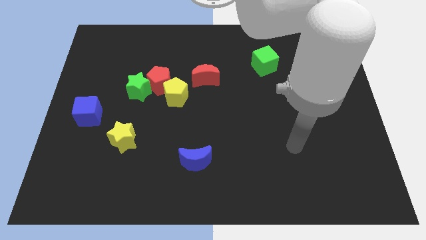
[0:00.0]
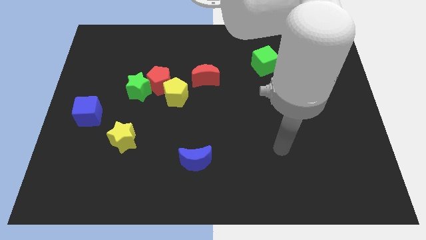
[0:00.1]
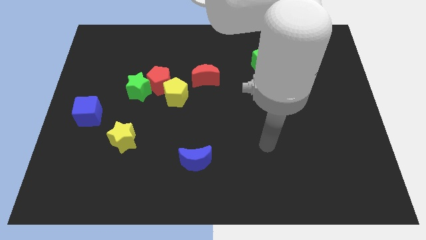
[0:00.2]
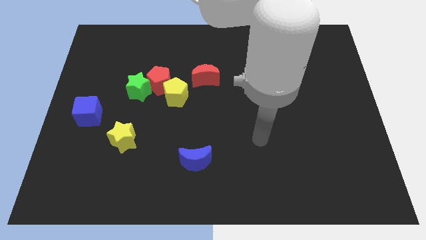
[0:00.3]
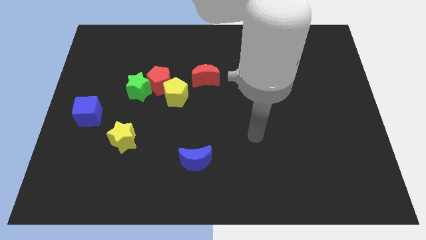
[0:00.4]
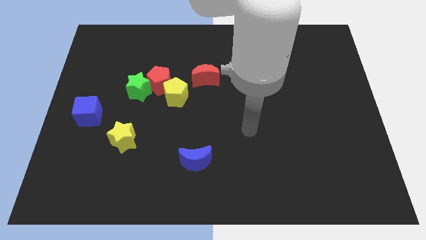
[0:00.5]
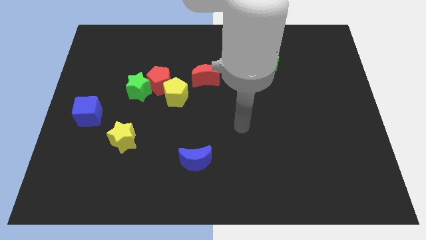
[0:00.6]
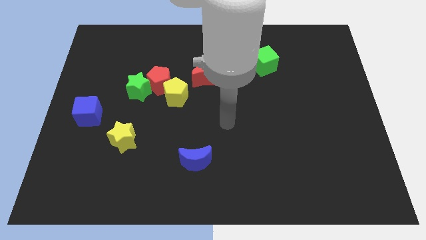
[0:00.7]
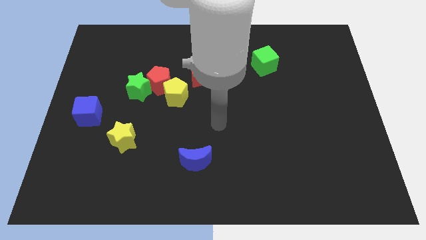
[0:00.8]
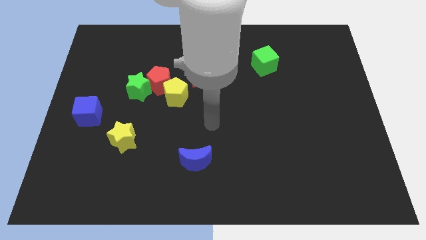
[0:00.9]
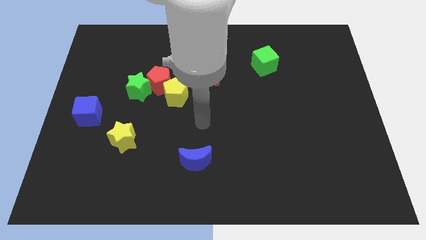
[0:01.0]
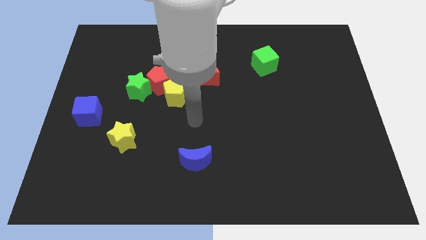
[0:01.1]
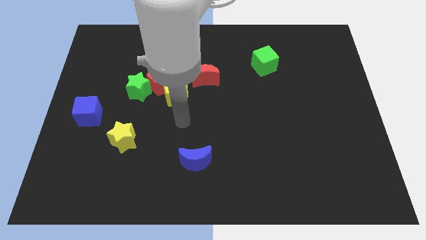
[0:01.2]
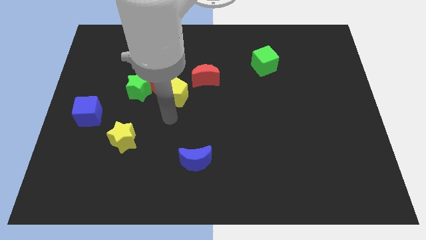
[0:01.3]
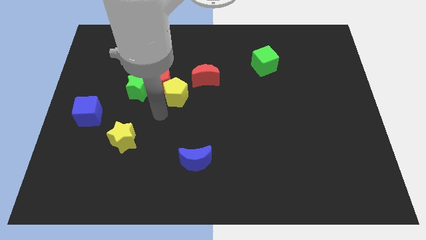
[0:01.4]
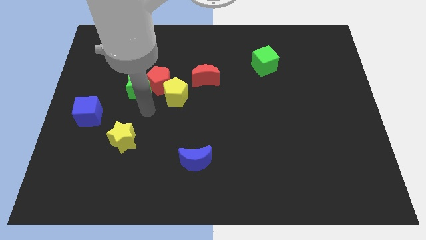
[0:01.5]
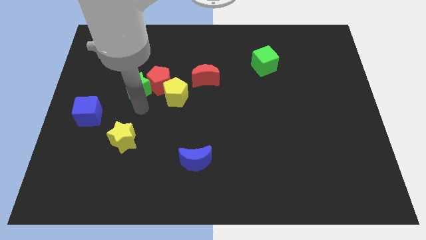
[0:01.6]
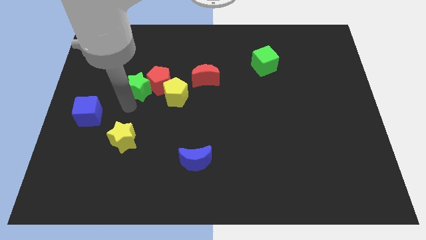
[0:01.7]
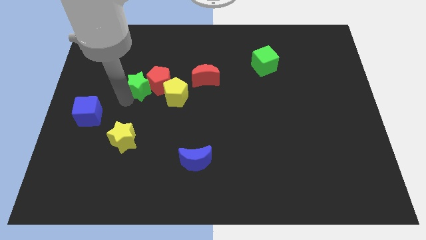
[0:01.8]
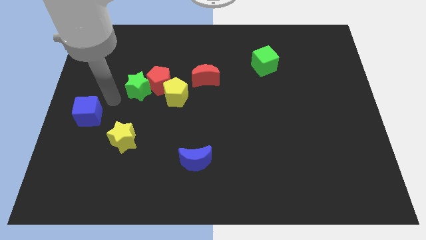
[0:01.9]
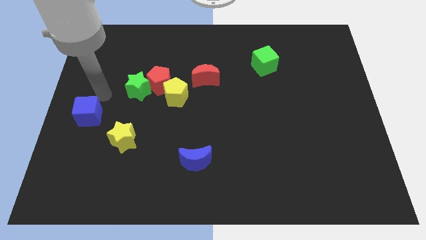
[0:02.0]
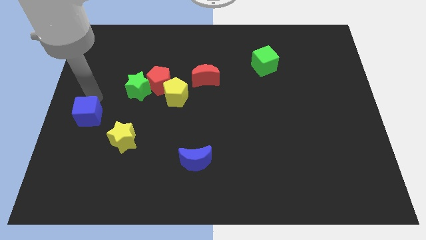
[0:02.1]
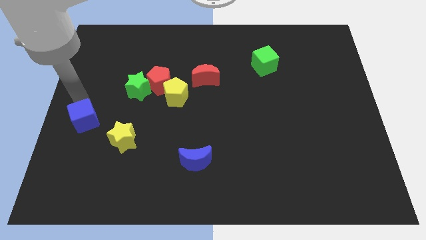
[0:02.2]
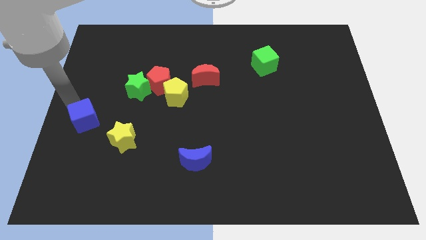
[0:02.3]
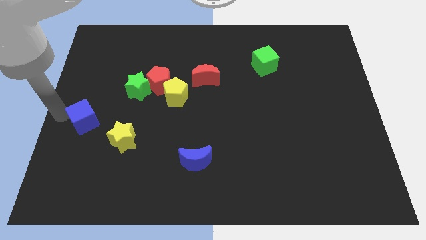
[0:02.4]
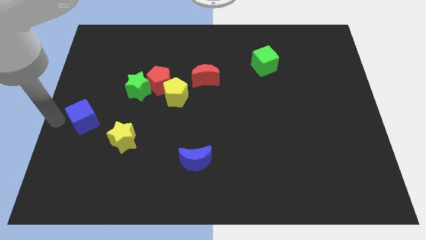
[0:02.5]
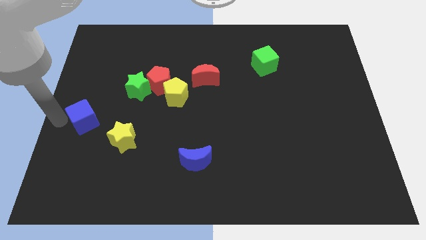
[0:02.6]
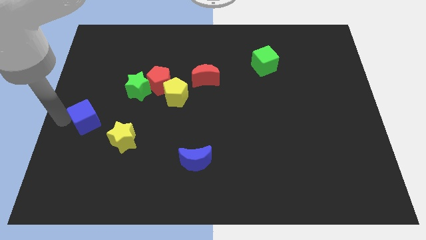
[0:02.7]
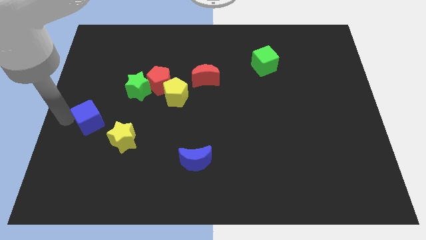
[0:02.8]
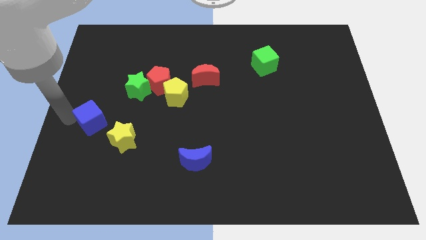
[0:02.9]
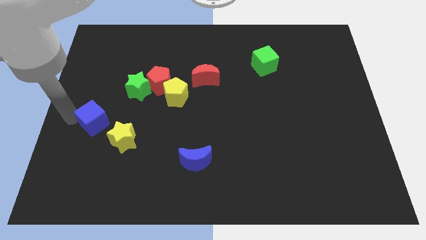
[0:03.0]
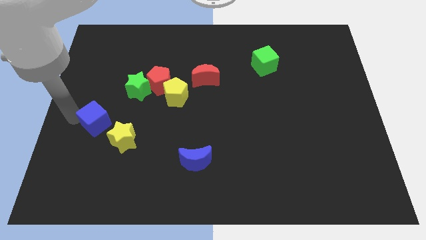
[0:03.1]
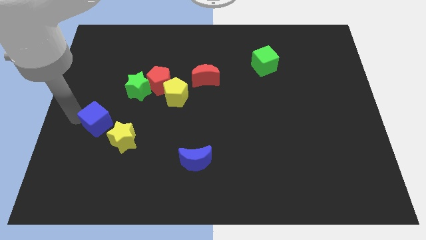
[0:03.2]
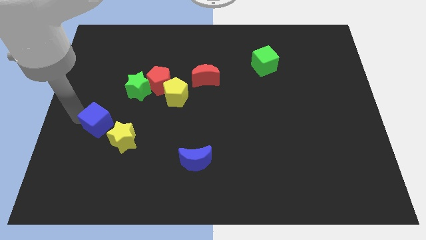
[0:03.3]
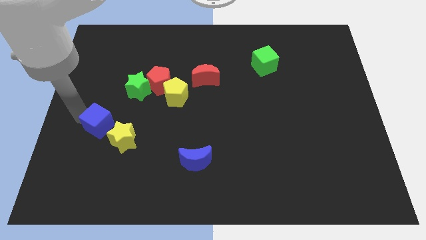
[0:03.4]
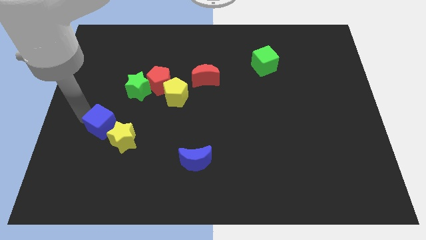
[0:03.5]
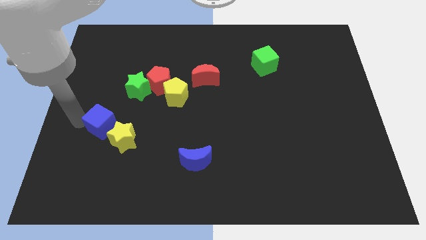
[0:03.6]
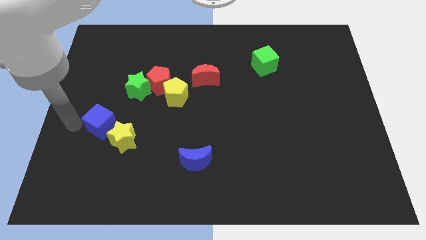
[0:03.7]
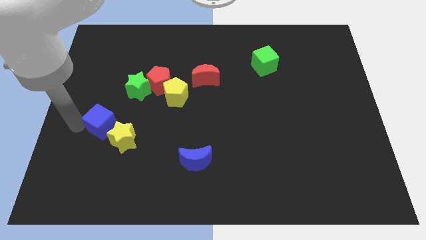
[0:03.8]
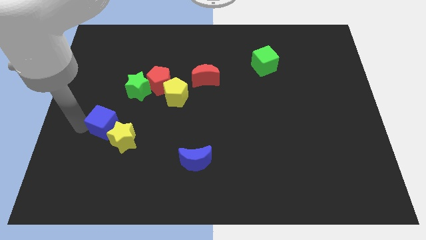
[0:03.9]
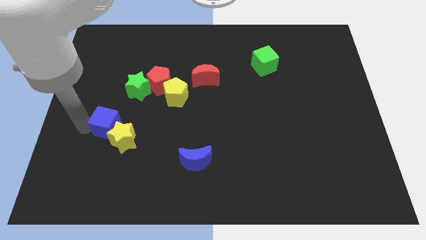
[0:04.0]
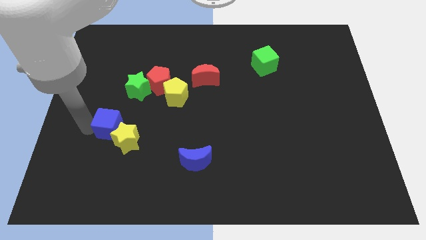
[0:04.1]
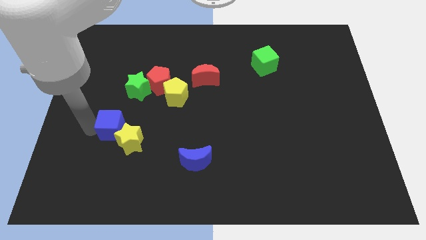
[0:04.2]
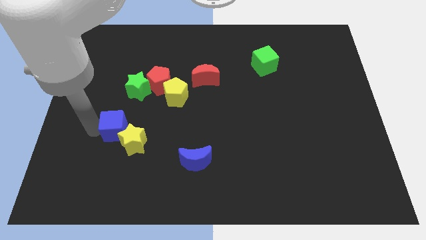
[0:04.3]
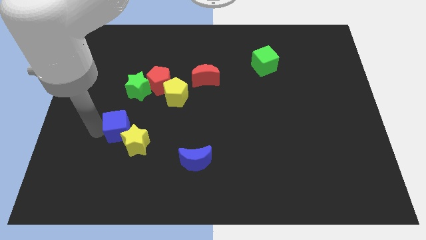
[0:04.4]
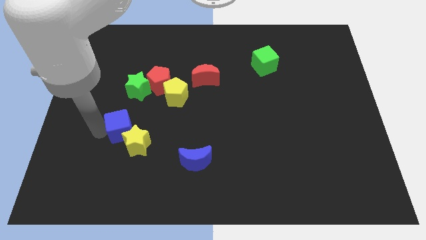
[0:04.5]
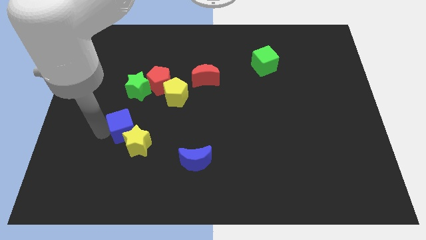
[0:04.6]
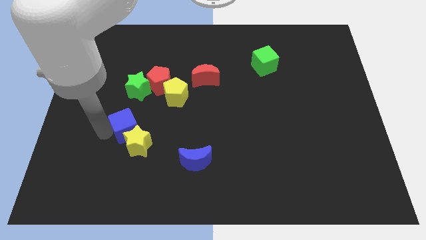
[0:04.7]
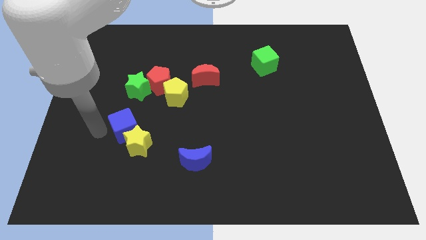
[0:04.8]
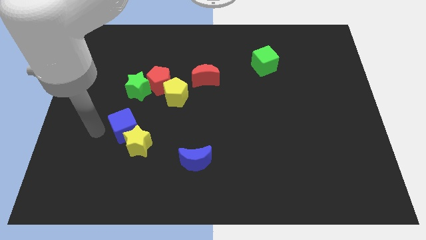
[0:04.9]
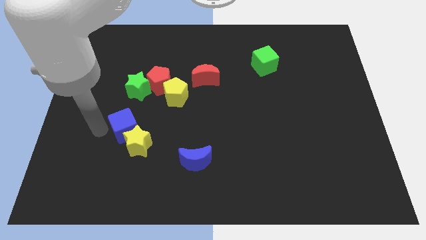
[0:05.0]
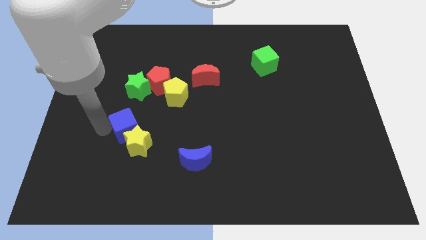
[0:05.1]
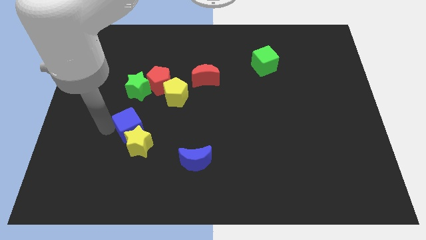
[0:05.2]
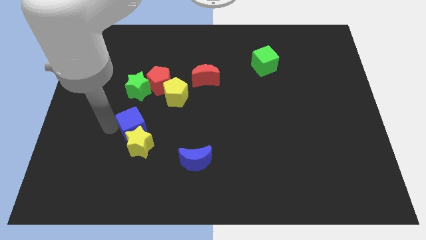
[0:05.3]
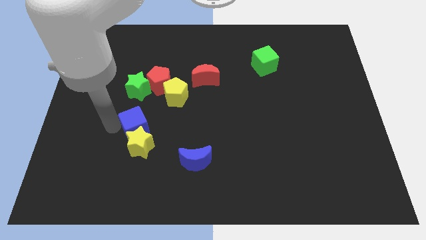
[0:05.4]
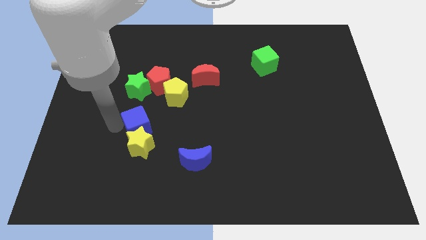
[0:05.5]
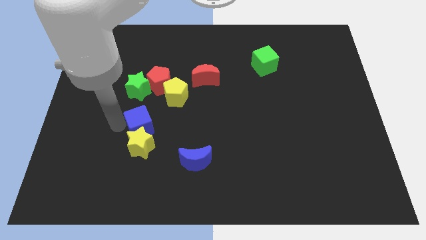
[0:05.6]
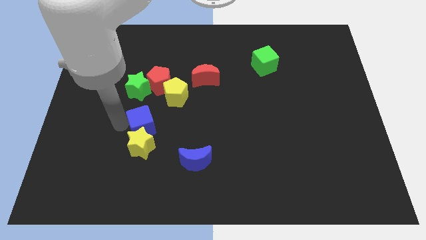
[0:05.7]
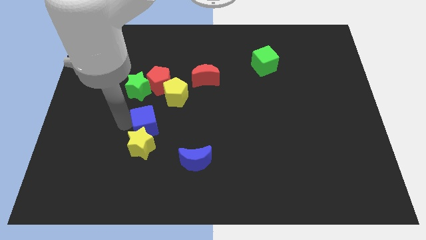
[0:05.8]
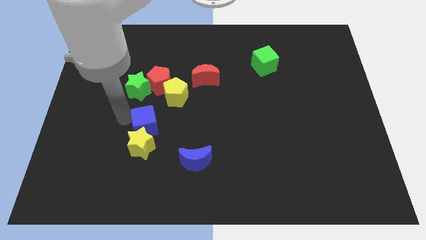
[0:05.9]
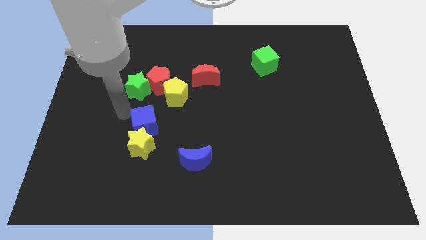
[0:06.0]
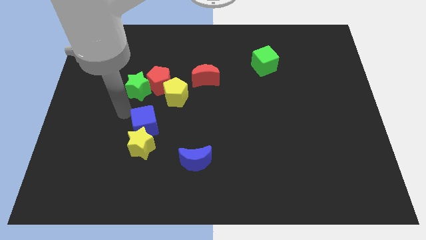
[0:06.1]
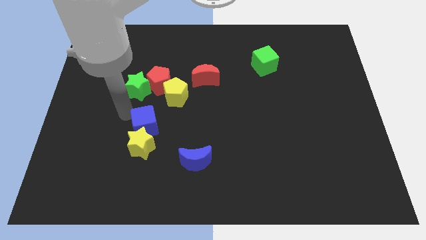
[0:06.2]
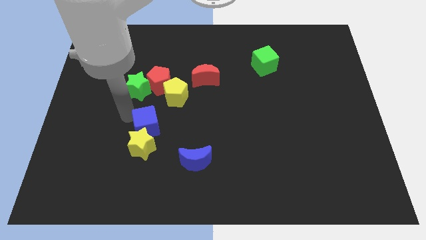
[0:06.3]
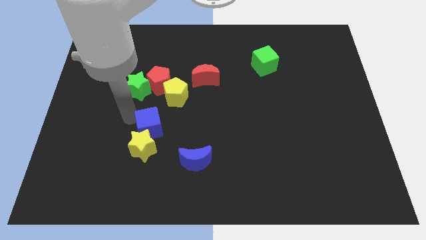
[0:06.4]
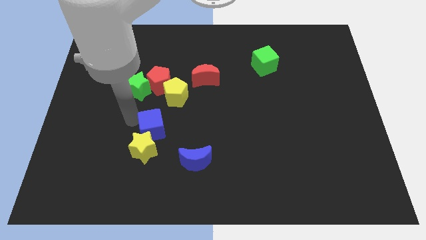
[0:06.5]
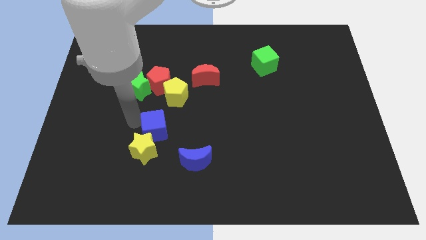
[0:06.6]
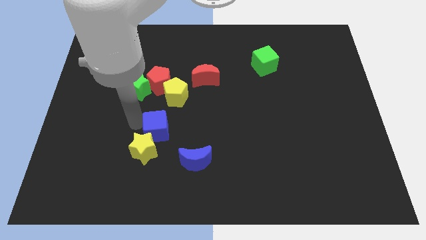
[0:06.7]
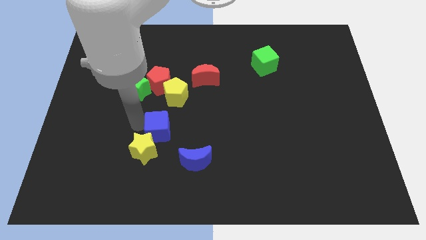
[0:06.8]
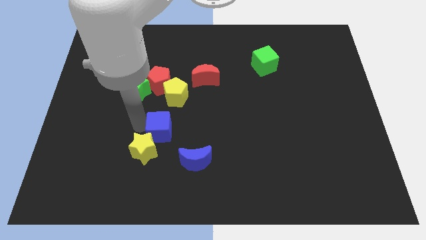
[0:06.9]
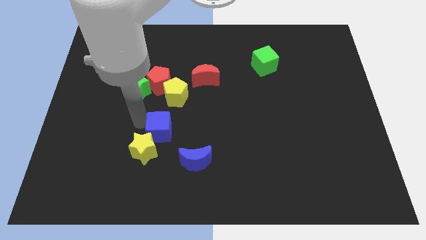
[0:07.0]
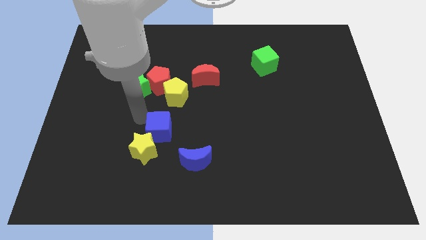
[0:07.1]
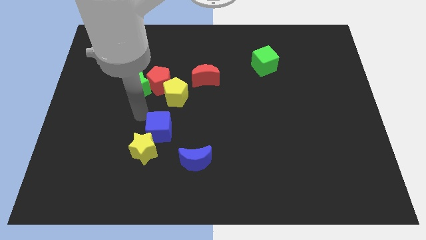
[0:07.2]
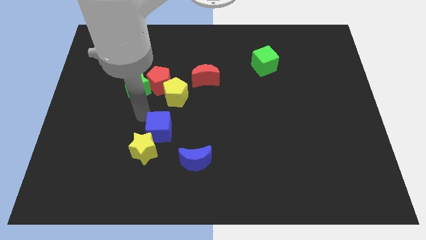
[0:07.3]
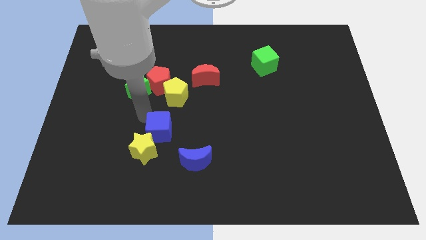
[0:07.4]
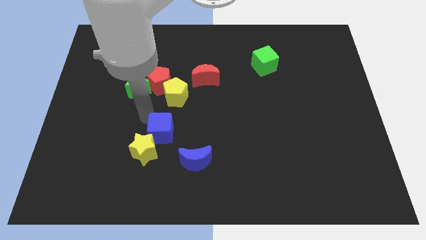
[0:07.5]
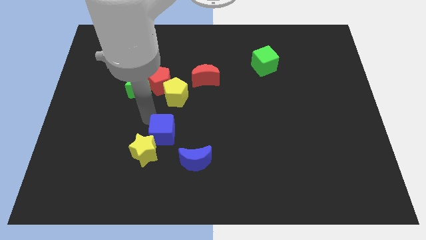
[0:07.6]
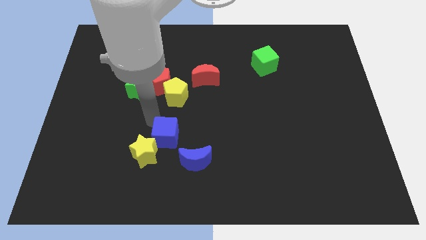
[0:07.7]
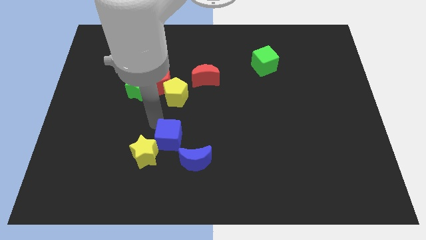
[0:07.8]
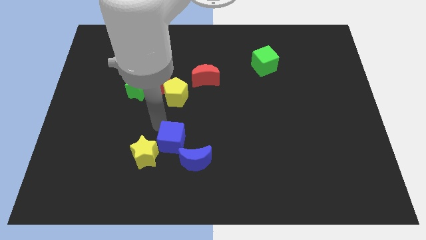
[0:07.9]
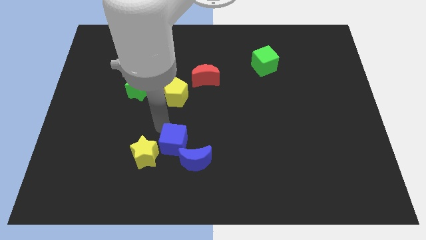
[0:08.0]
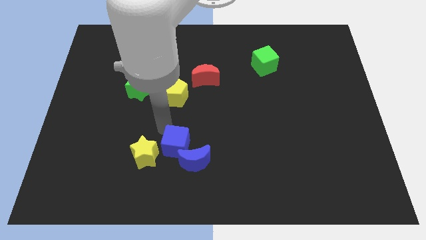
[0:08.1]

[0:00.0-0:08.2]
move the blue cube towards the blue moon
